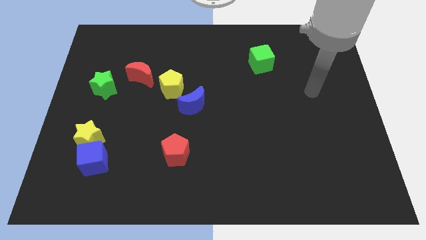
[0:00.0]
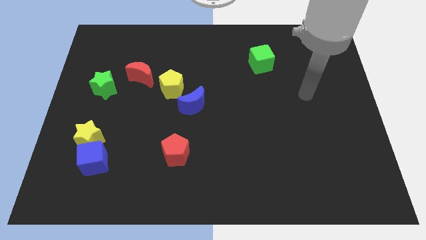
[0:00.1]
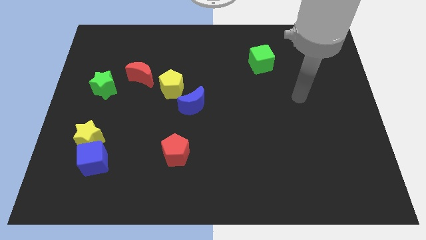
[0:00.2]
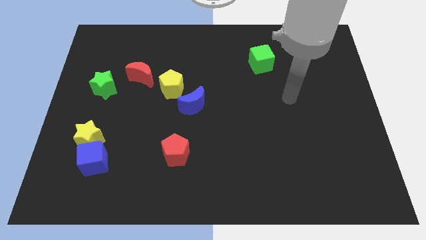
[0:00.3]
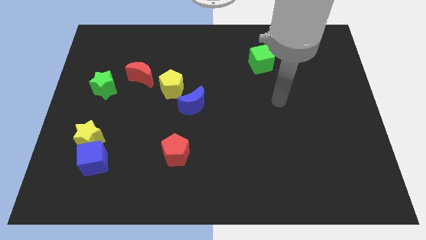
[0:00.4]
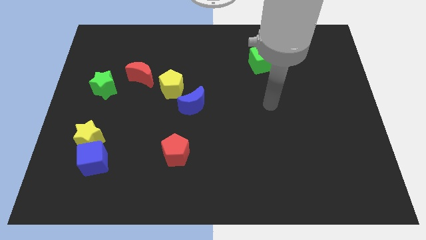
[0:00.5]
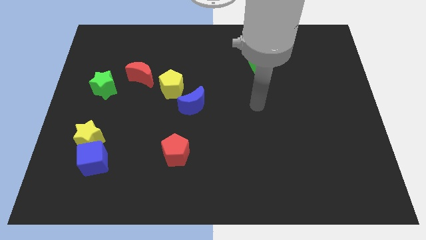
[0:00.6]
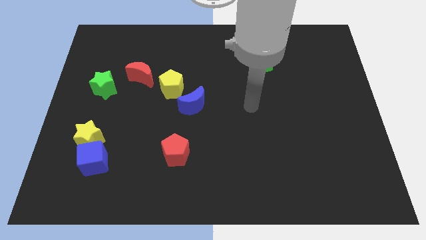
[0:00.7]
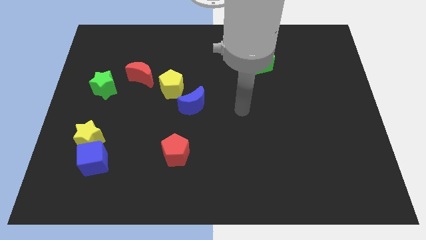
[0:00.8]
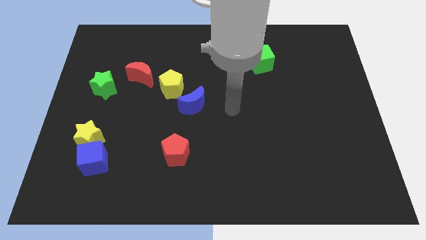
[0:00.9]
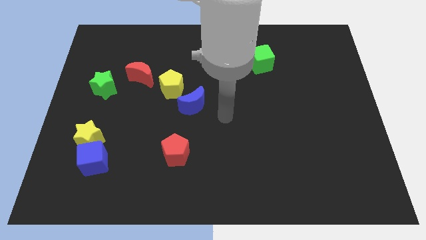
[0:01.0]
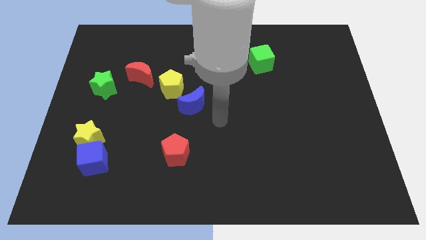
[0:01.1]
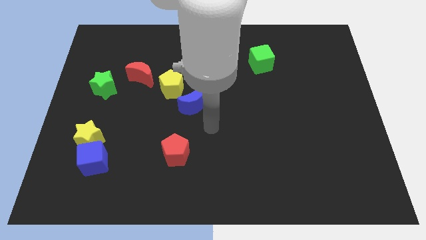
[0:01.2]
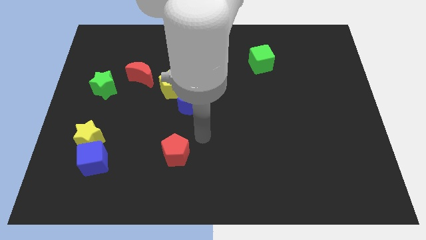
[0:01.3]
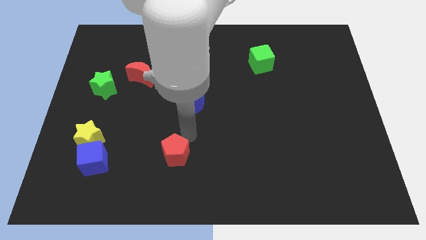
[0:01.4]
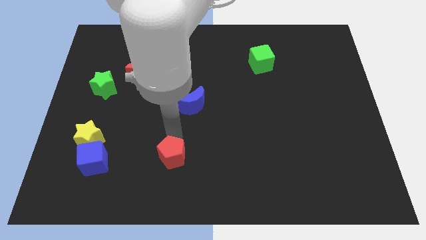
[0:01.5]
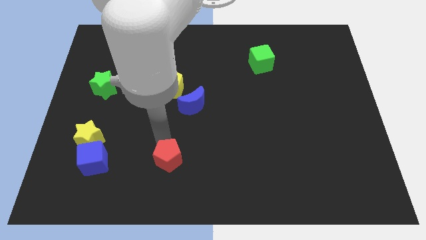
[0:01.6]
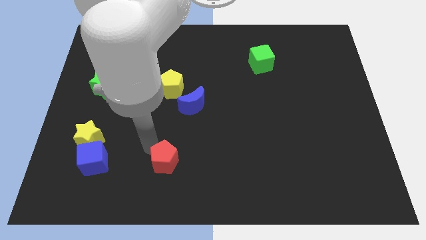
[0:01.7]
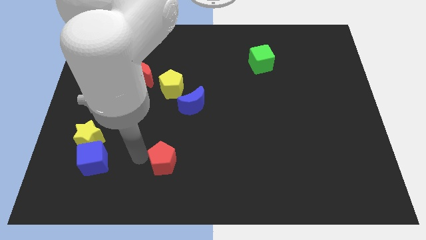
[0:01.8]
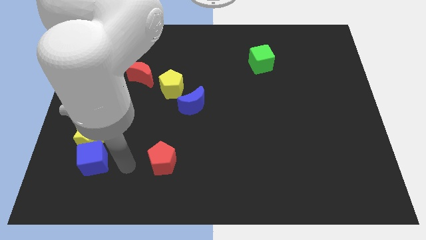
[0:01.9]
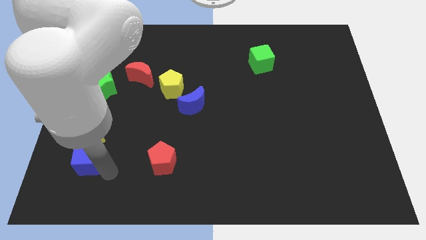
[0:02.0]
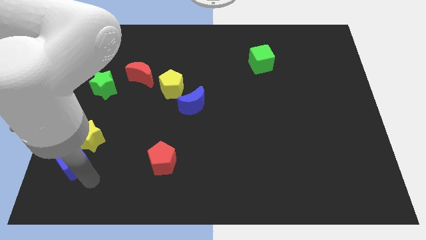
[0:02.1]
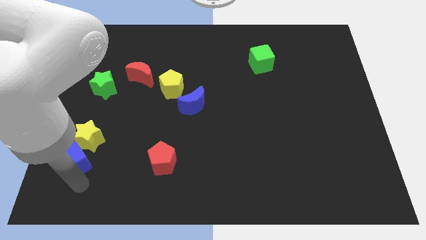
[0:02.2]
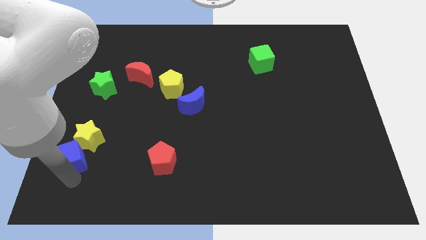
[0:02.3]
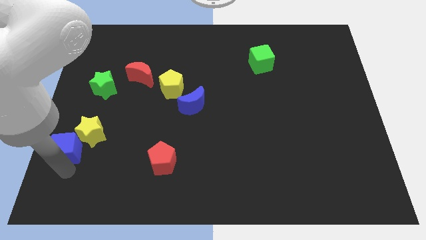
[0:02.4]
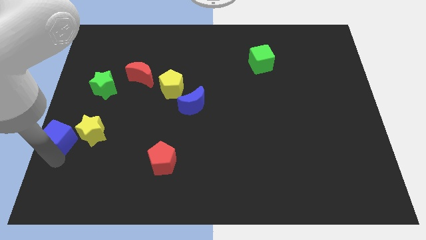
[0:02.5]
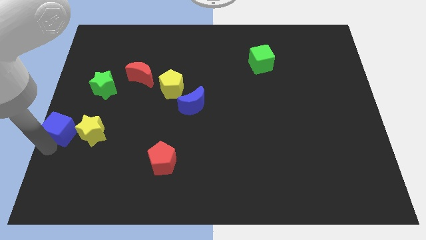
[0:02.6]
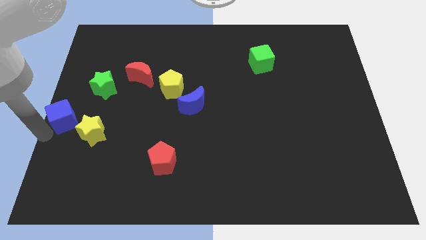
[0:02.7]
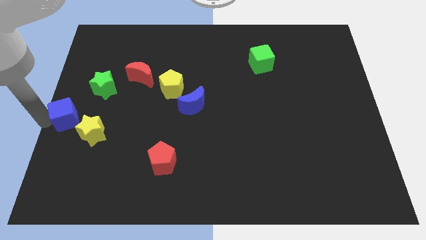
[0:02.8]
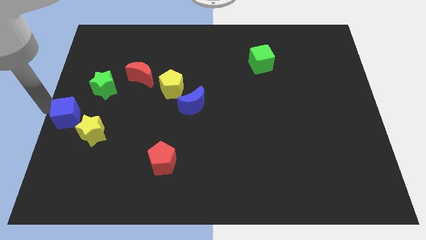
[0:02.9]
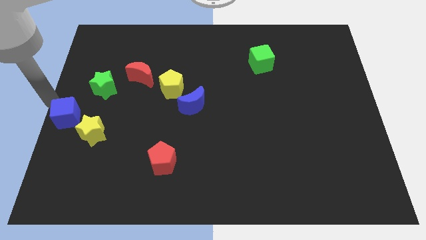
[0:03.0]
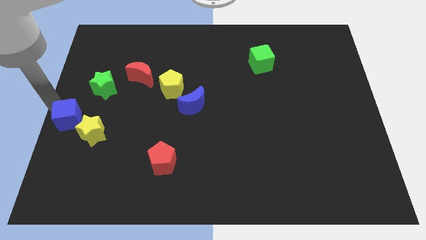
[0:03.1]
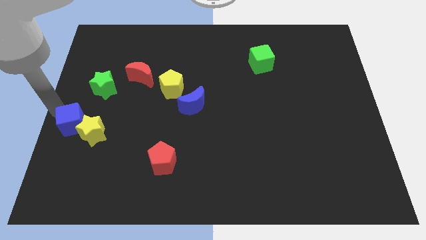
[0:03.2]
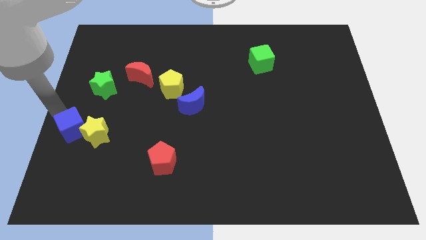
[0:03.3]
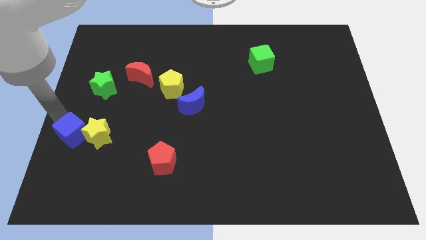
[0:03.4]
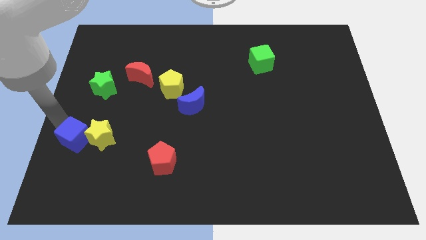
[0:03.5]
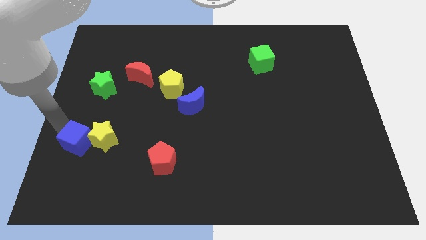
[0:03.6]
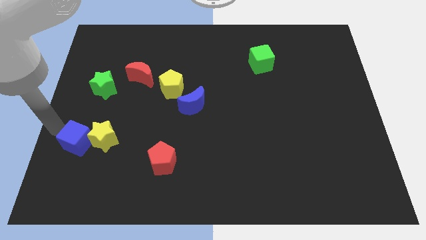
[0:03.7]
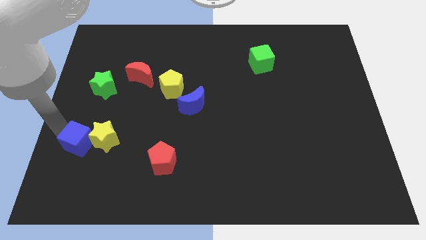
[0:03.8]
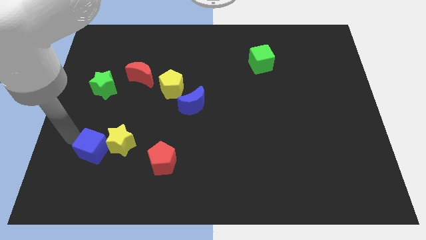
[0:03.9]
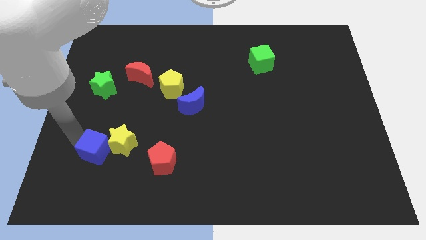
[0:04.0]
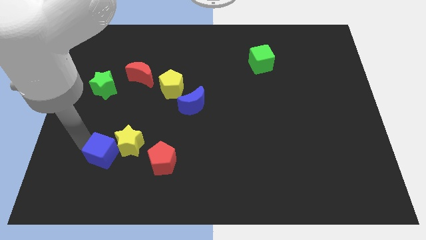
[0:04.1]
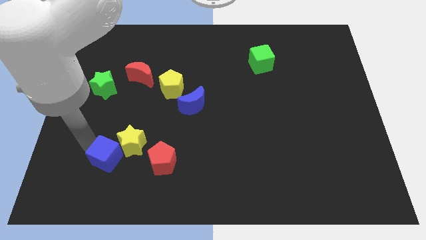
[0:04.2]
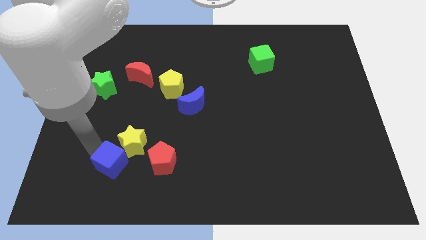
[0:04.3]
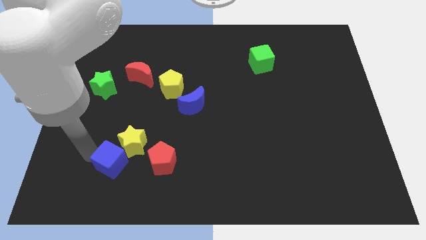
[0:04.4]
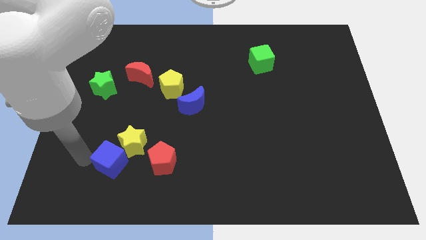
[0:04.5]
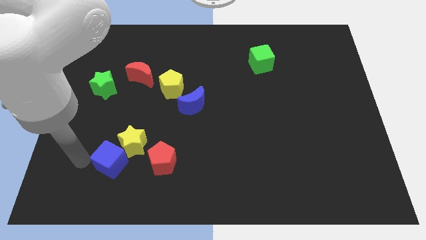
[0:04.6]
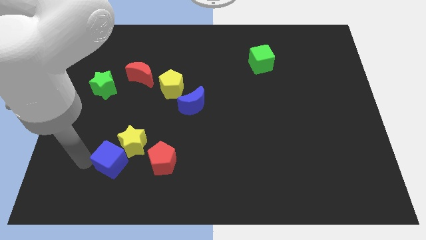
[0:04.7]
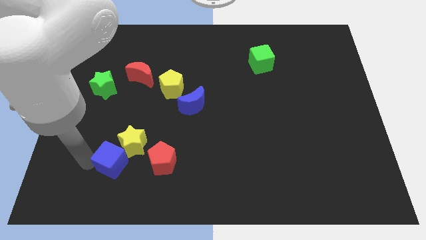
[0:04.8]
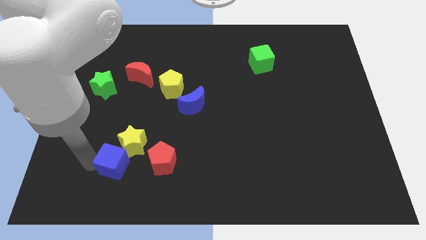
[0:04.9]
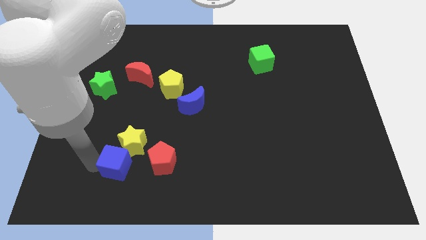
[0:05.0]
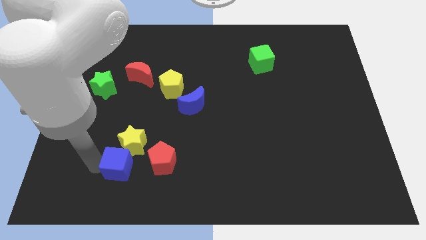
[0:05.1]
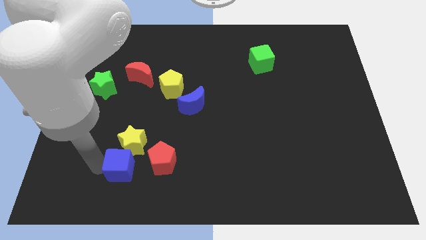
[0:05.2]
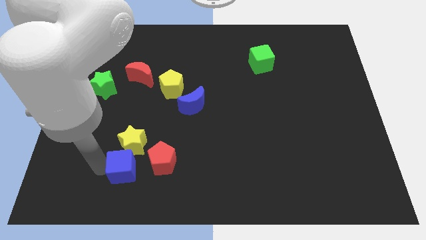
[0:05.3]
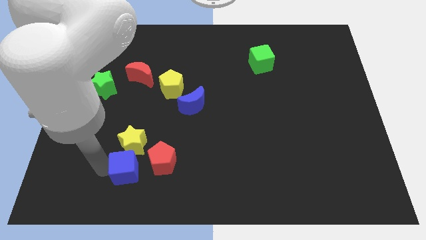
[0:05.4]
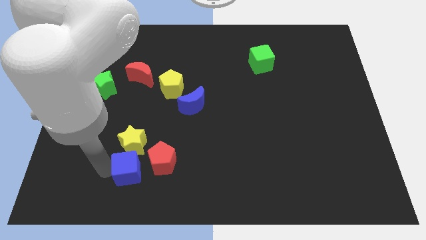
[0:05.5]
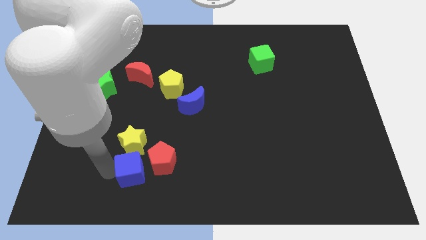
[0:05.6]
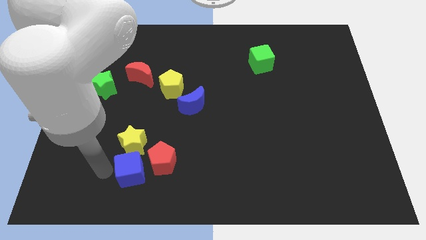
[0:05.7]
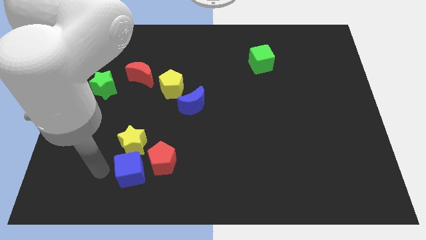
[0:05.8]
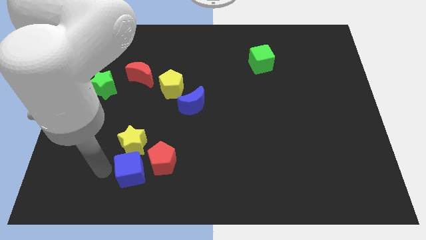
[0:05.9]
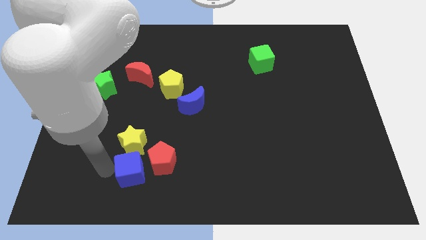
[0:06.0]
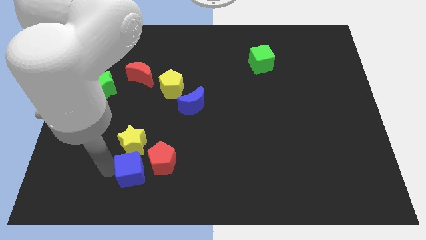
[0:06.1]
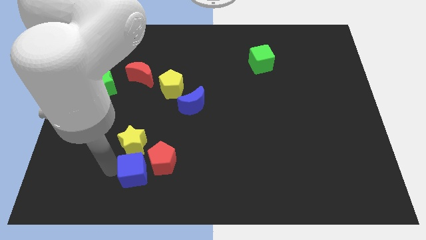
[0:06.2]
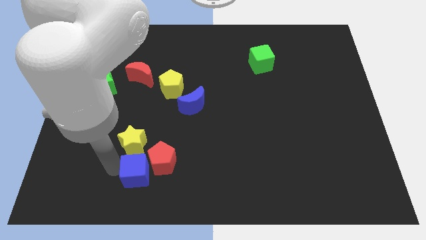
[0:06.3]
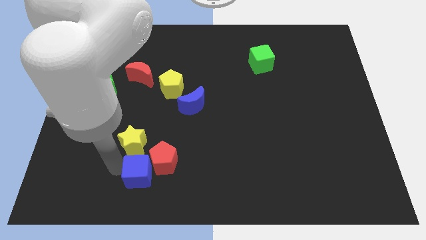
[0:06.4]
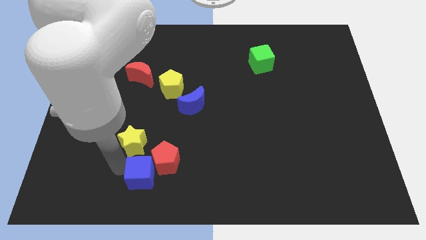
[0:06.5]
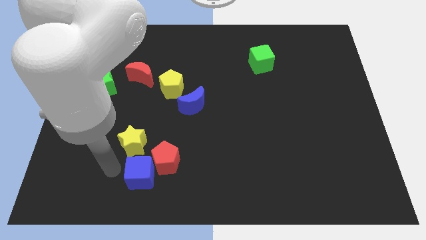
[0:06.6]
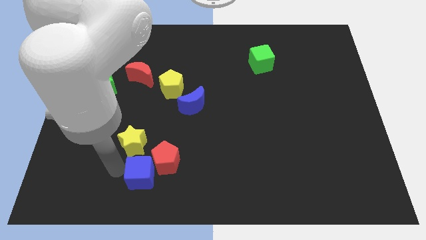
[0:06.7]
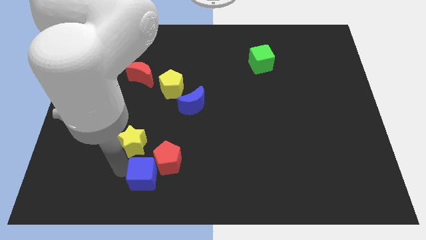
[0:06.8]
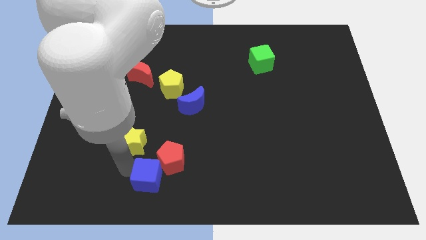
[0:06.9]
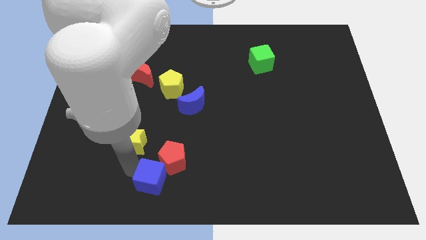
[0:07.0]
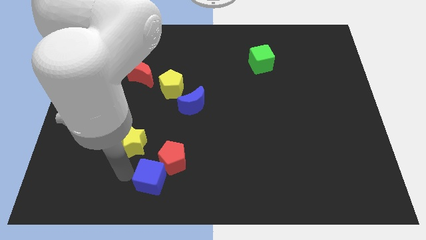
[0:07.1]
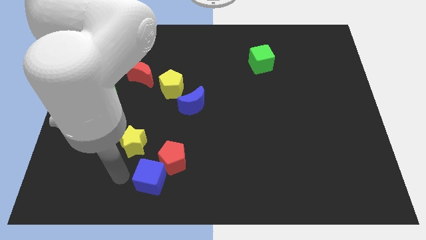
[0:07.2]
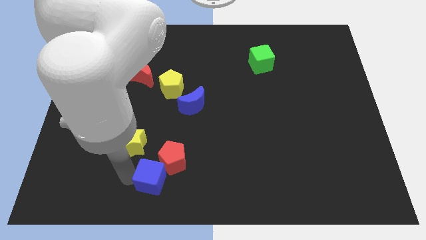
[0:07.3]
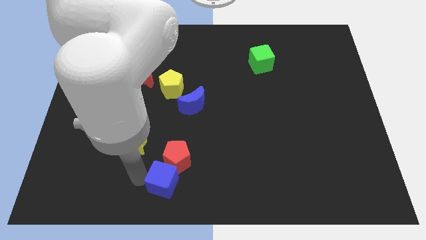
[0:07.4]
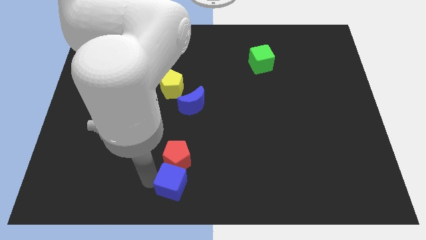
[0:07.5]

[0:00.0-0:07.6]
put the blue cube diagonally down and to the right of the red pentagon
